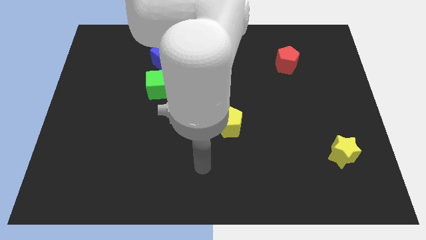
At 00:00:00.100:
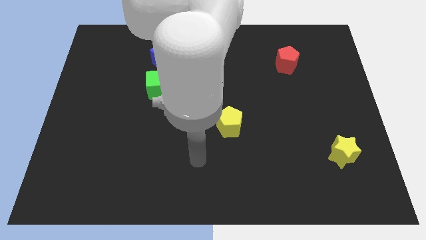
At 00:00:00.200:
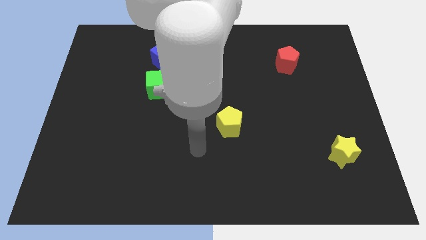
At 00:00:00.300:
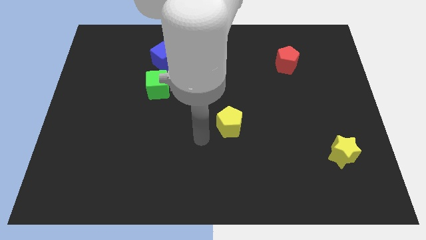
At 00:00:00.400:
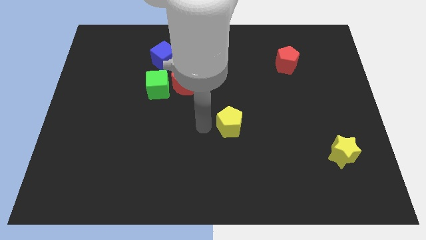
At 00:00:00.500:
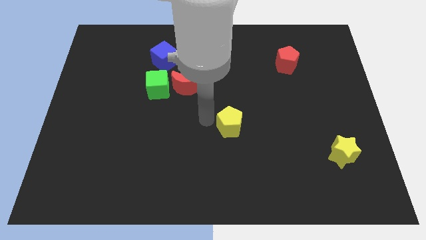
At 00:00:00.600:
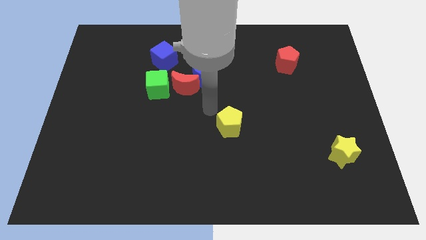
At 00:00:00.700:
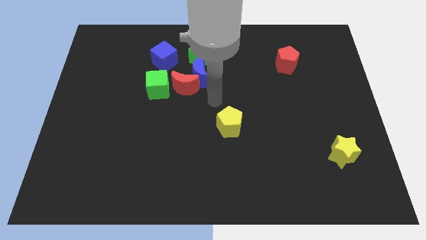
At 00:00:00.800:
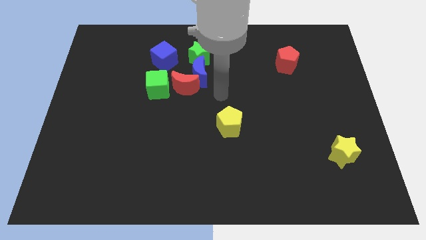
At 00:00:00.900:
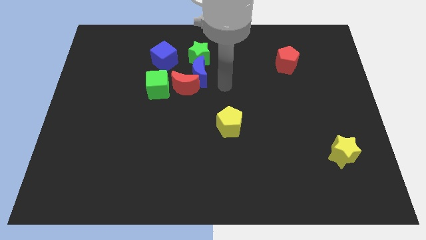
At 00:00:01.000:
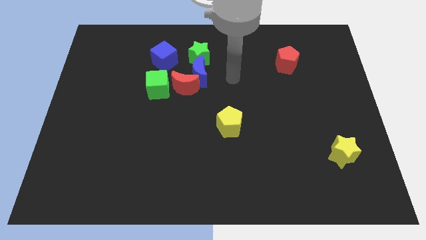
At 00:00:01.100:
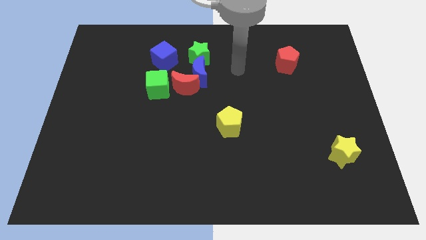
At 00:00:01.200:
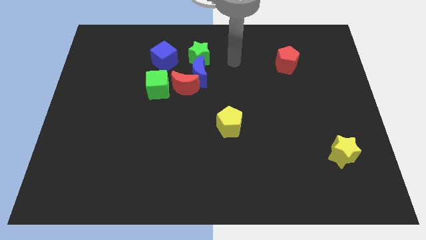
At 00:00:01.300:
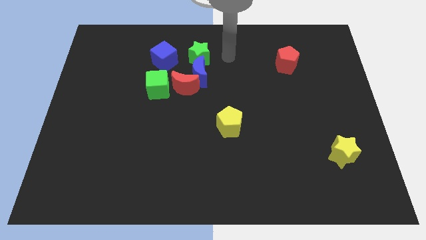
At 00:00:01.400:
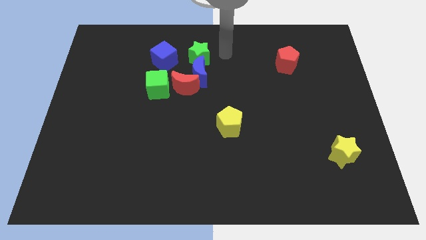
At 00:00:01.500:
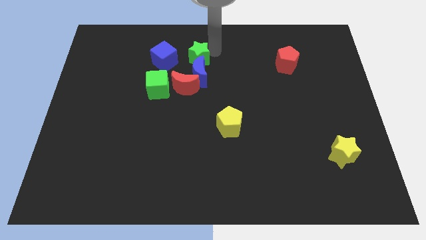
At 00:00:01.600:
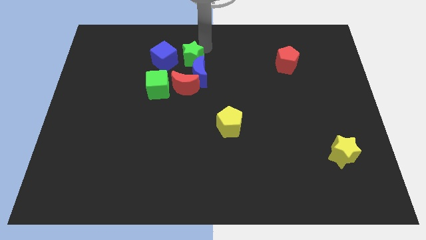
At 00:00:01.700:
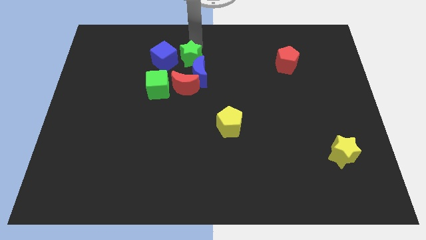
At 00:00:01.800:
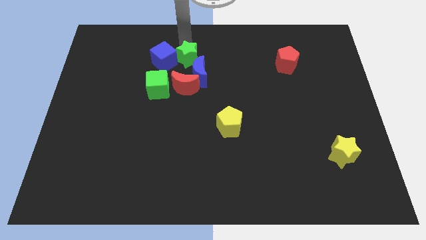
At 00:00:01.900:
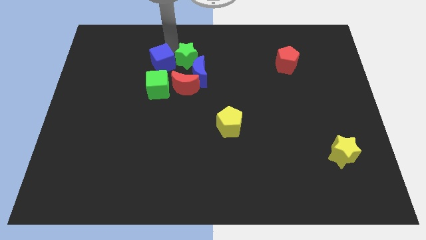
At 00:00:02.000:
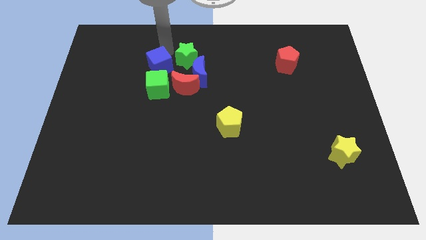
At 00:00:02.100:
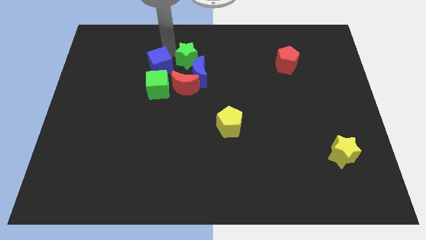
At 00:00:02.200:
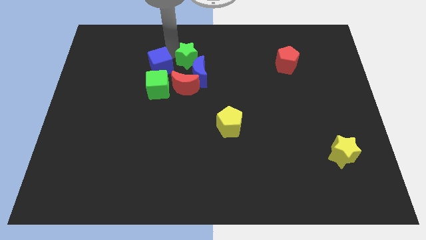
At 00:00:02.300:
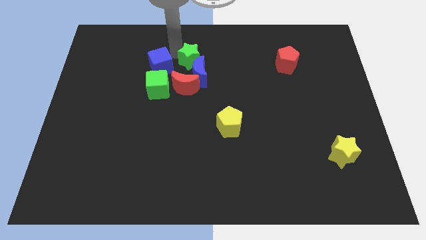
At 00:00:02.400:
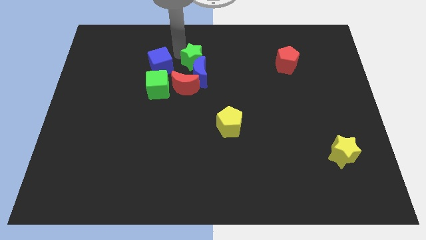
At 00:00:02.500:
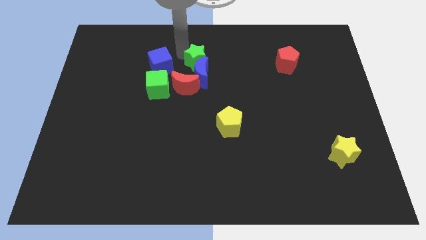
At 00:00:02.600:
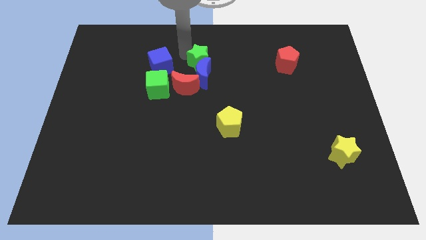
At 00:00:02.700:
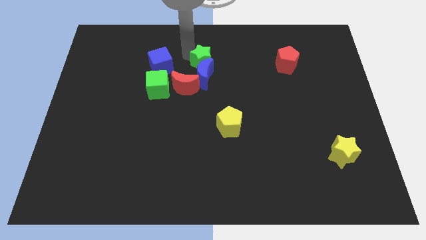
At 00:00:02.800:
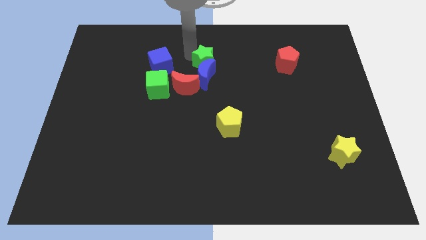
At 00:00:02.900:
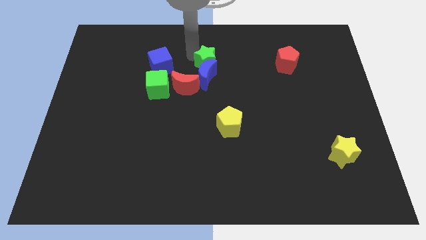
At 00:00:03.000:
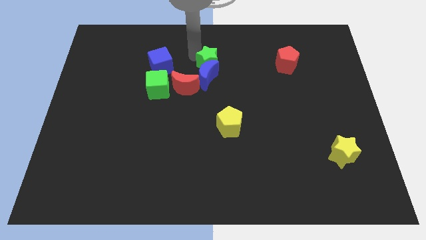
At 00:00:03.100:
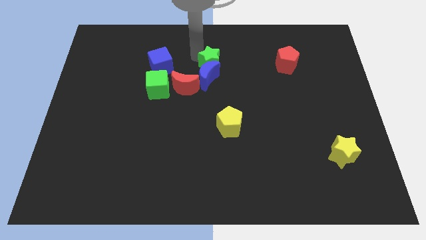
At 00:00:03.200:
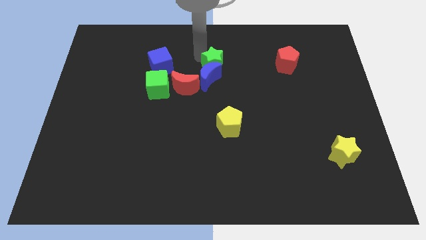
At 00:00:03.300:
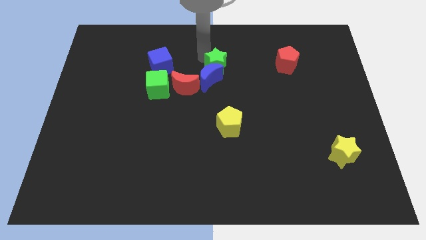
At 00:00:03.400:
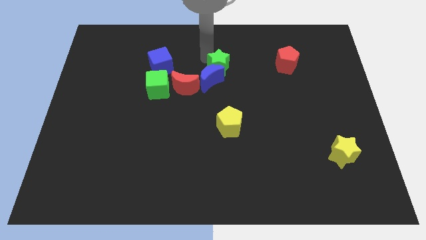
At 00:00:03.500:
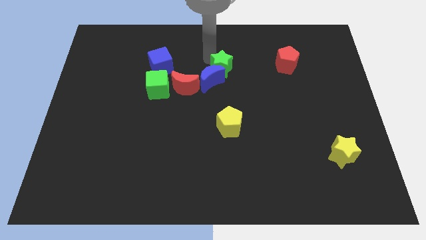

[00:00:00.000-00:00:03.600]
push the green star down and right a little

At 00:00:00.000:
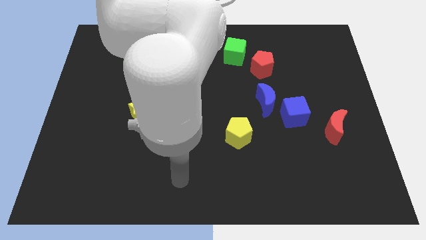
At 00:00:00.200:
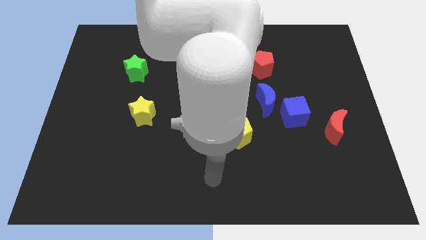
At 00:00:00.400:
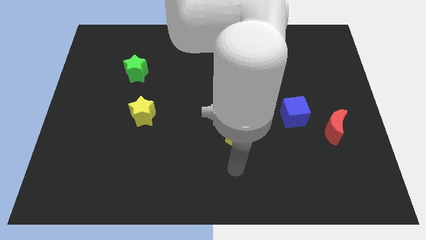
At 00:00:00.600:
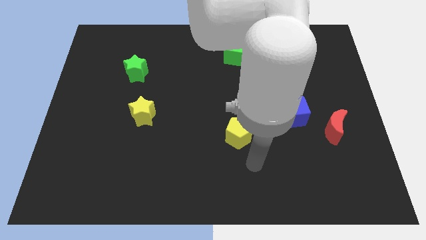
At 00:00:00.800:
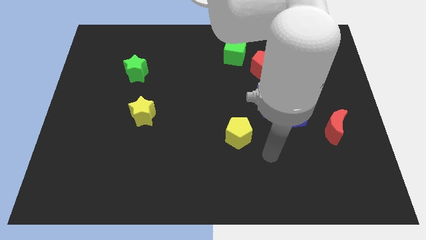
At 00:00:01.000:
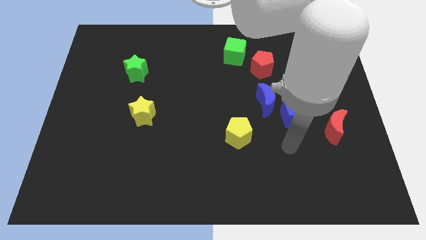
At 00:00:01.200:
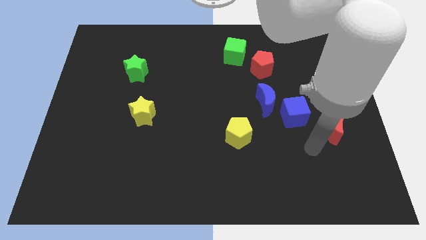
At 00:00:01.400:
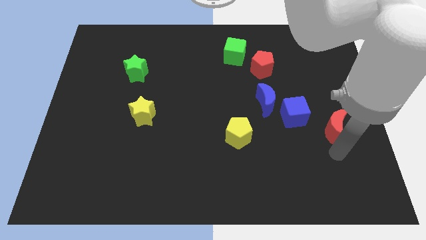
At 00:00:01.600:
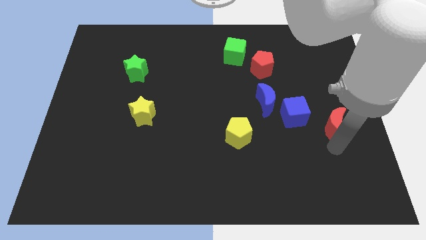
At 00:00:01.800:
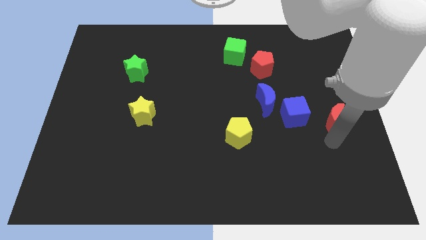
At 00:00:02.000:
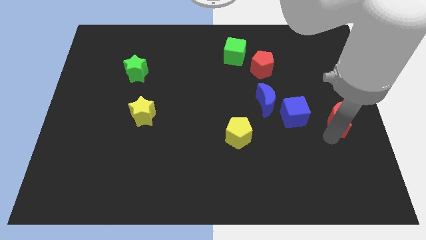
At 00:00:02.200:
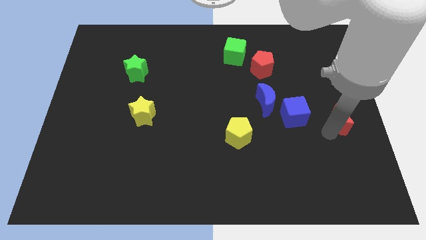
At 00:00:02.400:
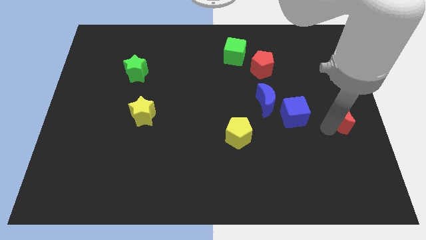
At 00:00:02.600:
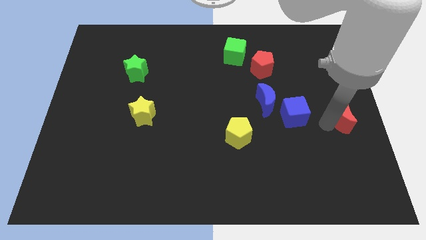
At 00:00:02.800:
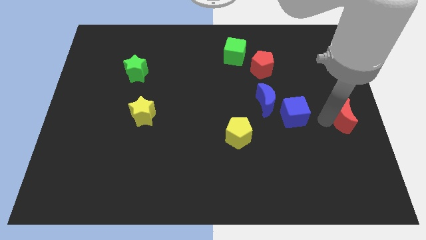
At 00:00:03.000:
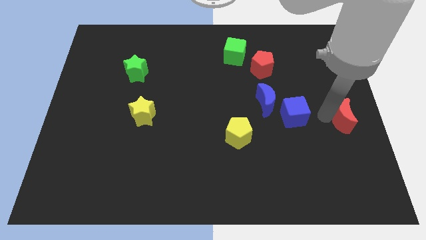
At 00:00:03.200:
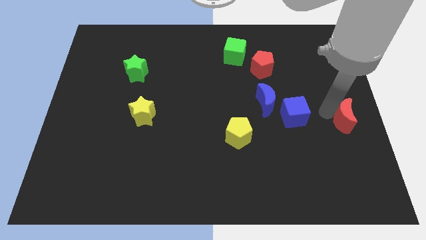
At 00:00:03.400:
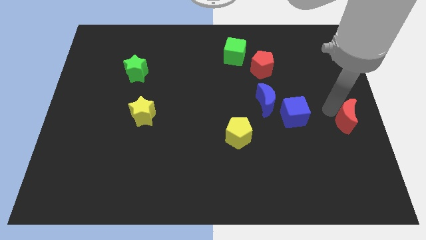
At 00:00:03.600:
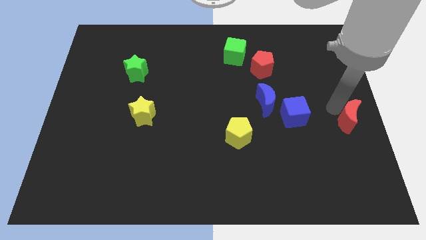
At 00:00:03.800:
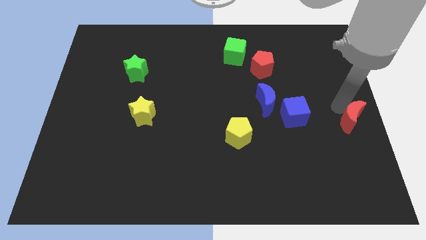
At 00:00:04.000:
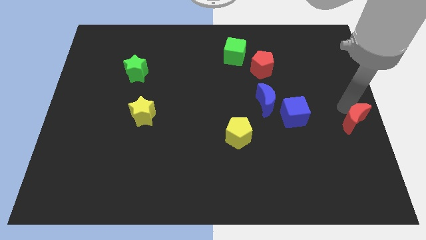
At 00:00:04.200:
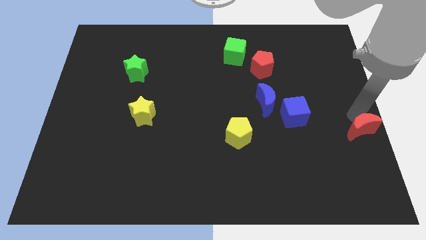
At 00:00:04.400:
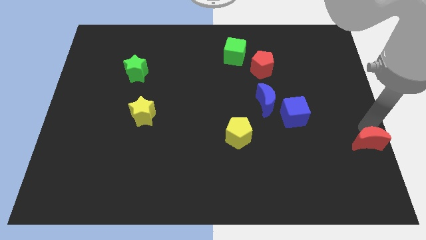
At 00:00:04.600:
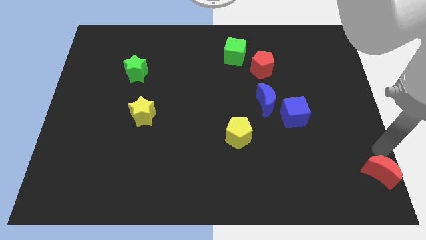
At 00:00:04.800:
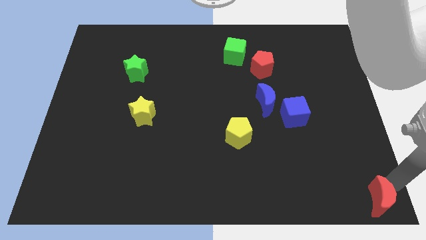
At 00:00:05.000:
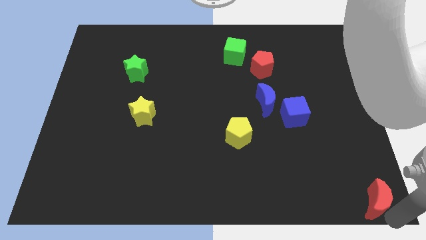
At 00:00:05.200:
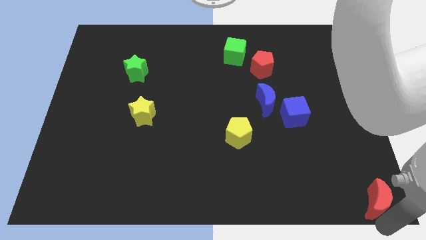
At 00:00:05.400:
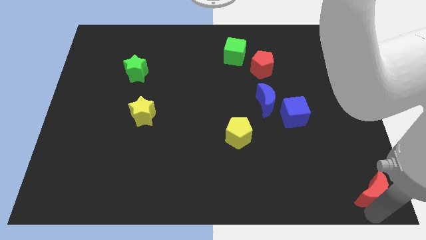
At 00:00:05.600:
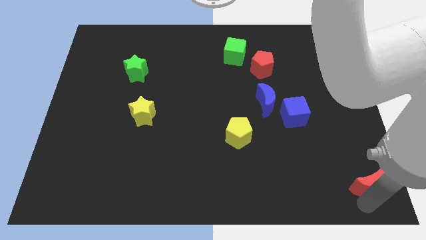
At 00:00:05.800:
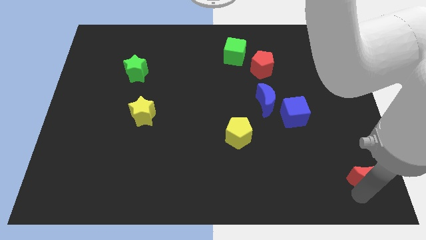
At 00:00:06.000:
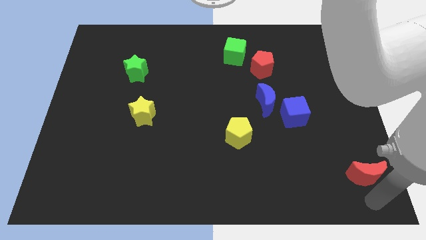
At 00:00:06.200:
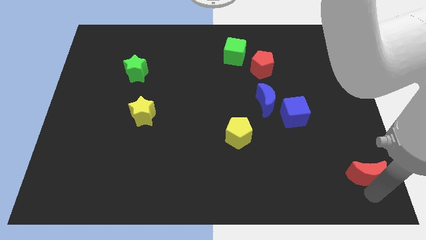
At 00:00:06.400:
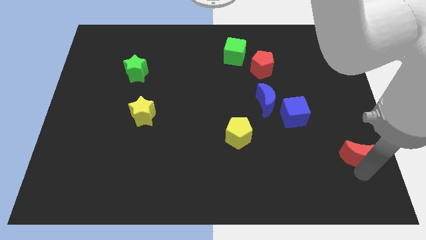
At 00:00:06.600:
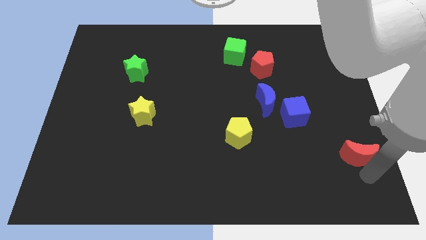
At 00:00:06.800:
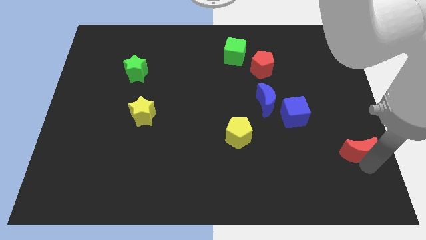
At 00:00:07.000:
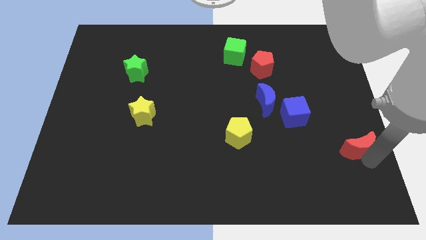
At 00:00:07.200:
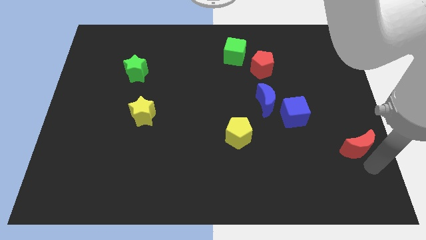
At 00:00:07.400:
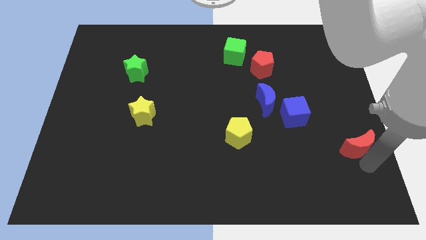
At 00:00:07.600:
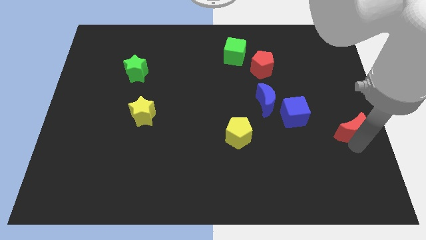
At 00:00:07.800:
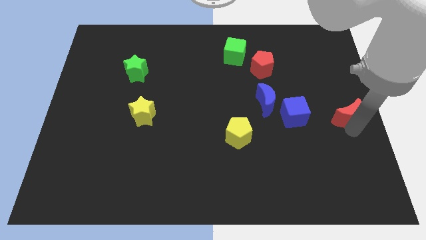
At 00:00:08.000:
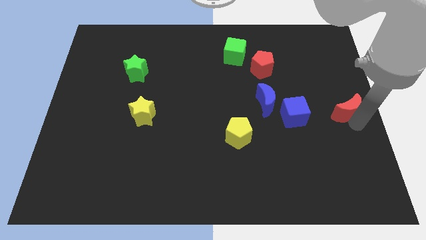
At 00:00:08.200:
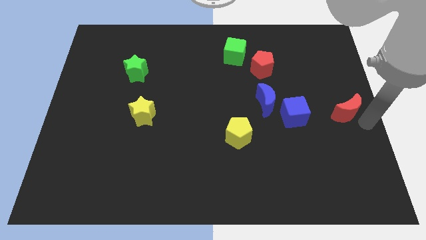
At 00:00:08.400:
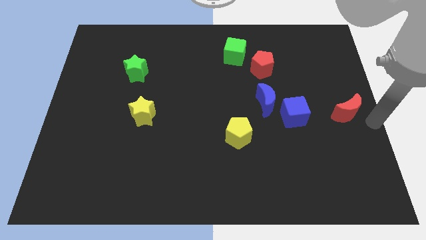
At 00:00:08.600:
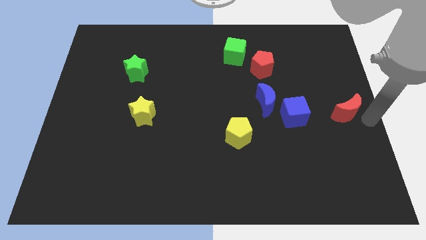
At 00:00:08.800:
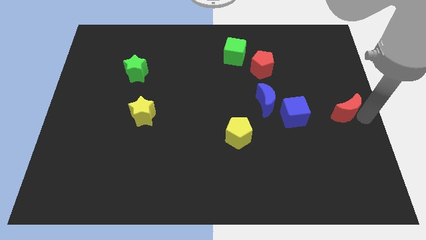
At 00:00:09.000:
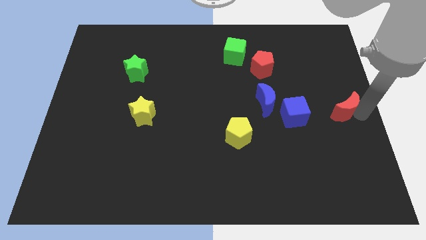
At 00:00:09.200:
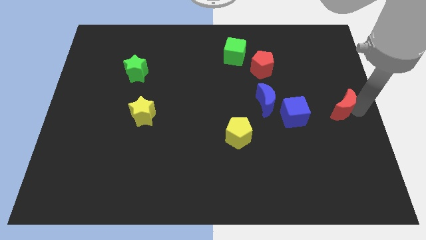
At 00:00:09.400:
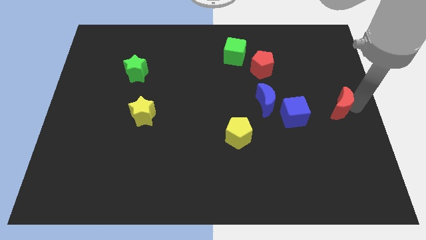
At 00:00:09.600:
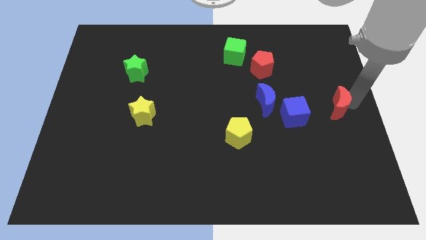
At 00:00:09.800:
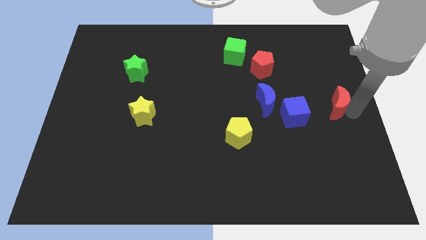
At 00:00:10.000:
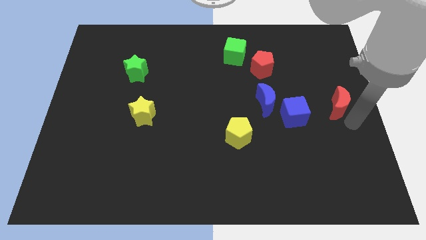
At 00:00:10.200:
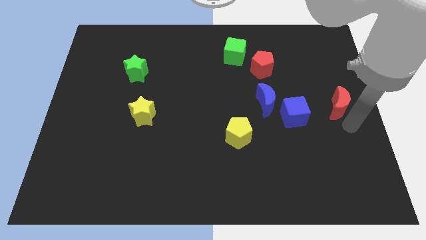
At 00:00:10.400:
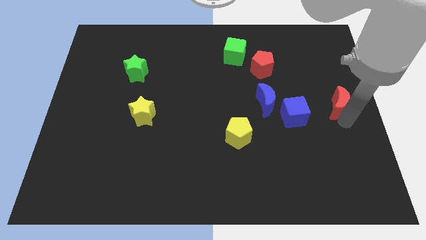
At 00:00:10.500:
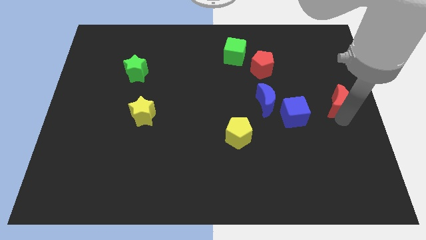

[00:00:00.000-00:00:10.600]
slightly move the red moon up
